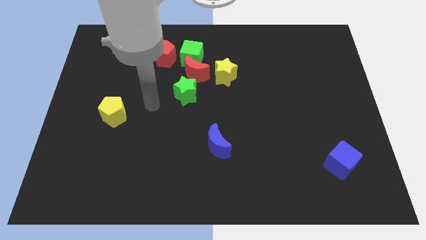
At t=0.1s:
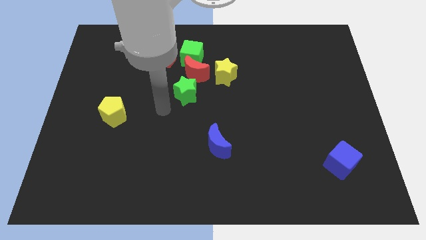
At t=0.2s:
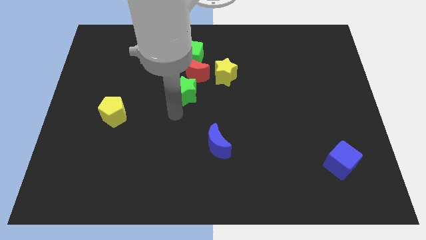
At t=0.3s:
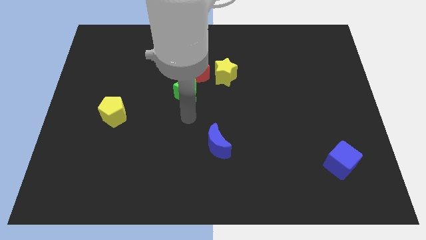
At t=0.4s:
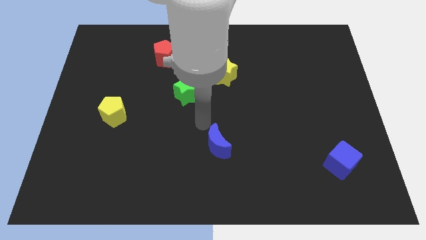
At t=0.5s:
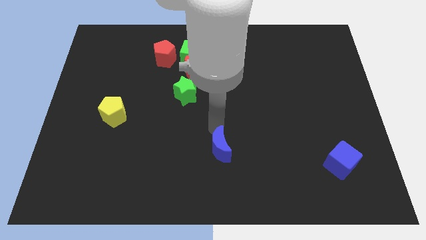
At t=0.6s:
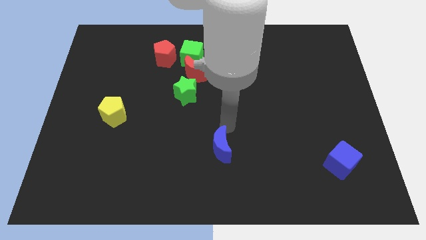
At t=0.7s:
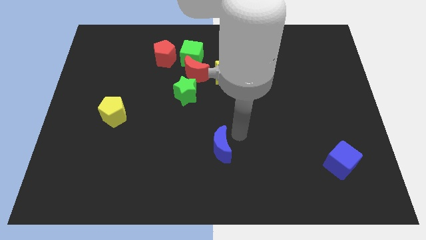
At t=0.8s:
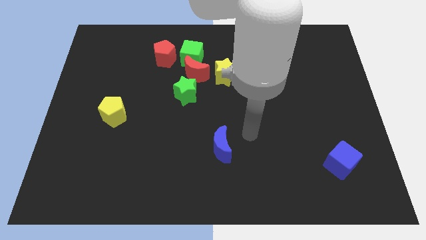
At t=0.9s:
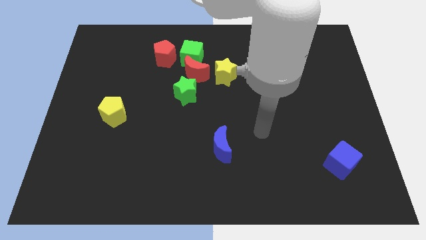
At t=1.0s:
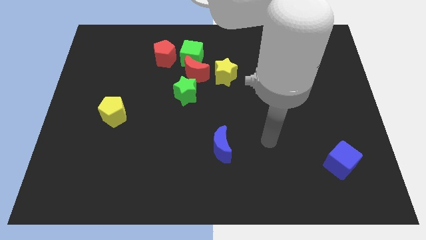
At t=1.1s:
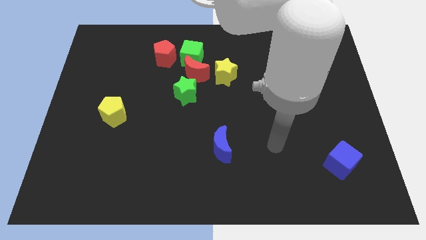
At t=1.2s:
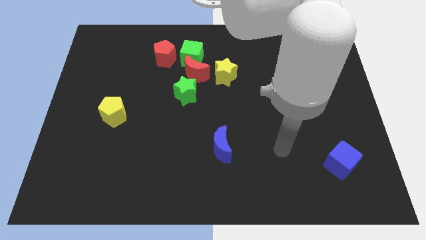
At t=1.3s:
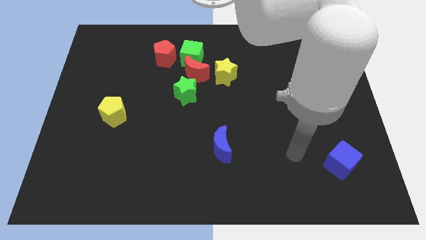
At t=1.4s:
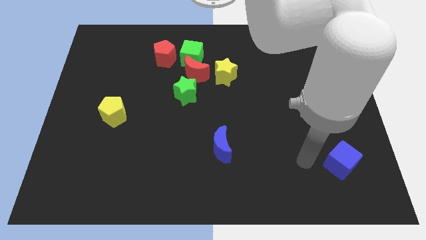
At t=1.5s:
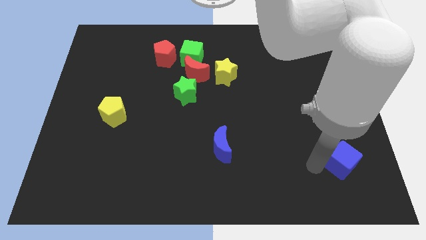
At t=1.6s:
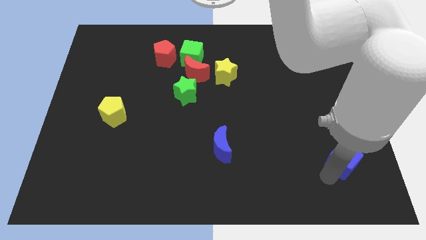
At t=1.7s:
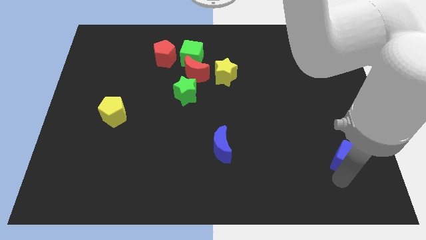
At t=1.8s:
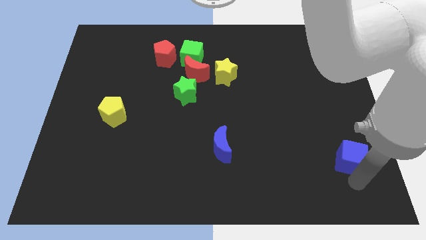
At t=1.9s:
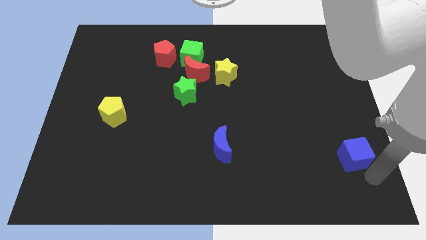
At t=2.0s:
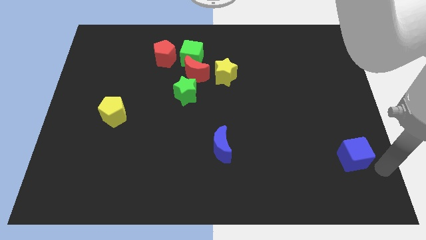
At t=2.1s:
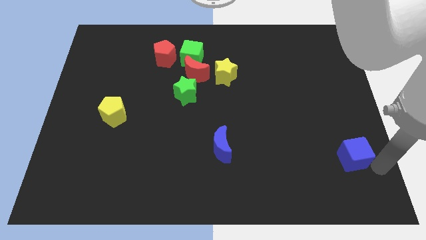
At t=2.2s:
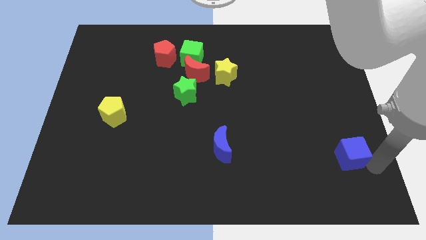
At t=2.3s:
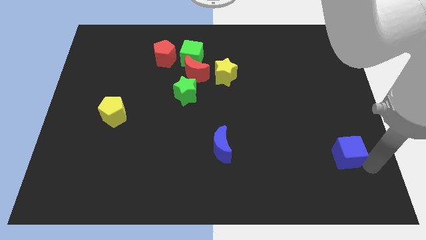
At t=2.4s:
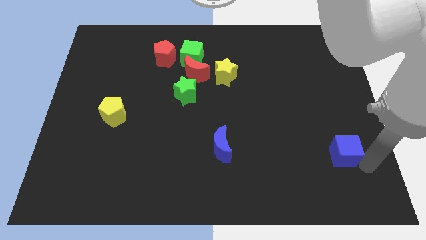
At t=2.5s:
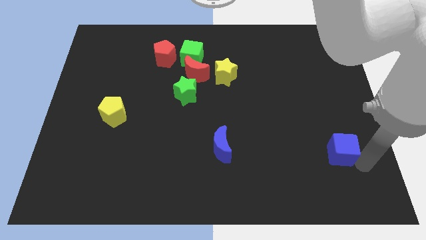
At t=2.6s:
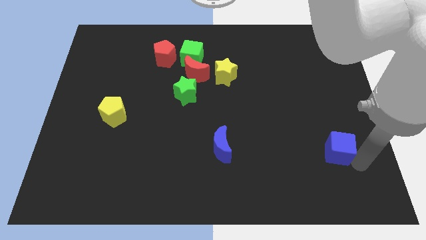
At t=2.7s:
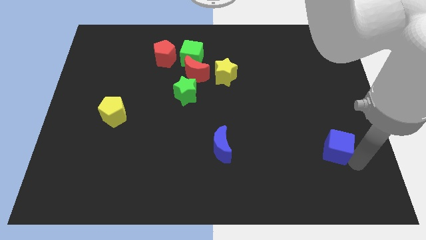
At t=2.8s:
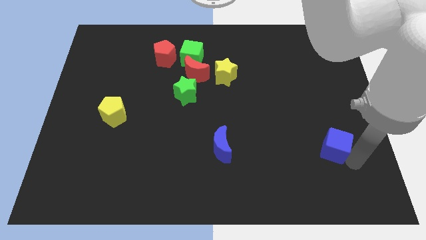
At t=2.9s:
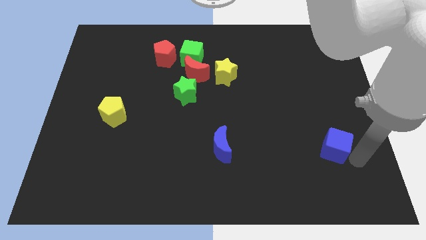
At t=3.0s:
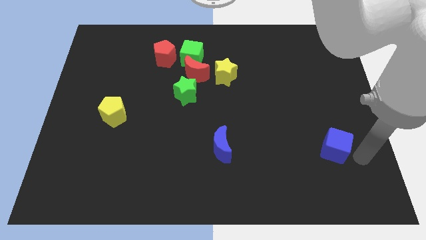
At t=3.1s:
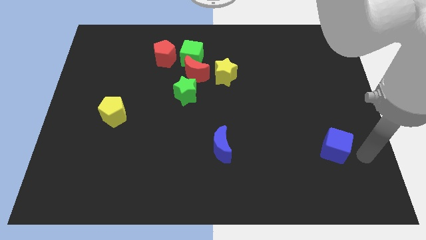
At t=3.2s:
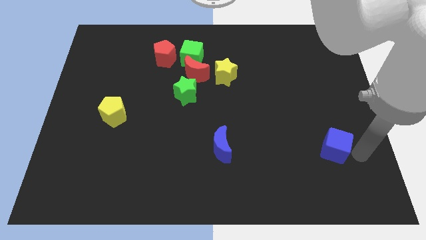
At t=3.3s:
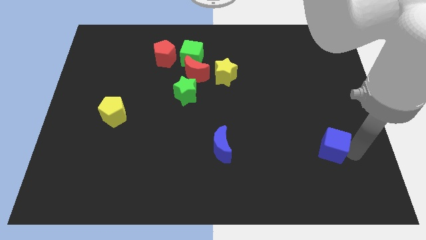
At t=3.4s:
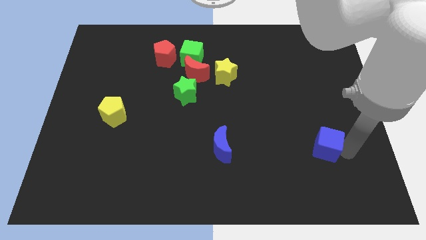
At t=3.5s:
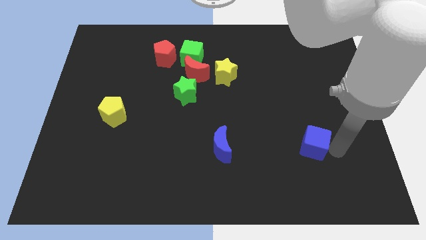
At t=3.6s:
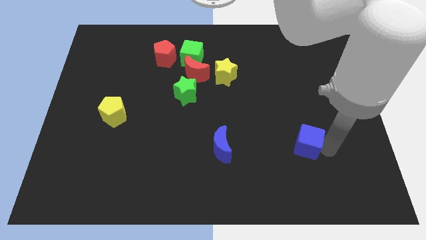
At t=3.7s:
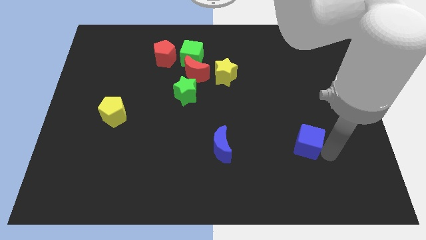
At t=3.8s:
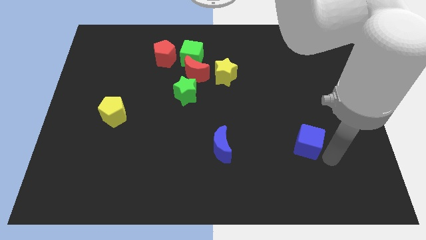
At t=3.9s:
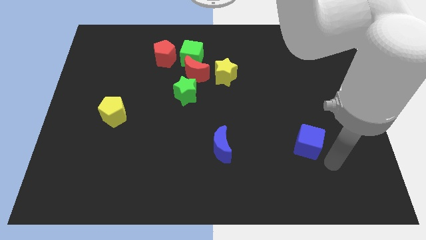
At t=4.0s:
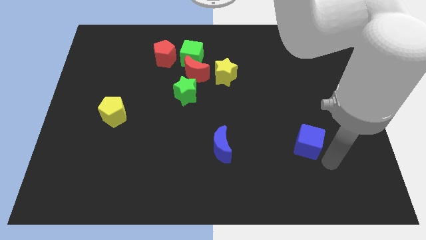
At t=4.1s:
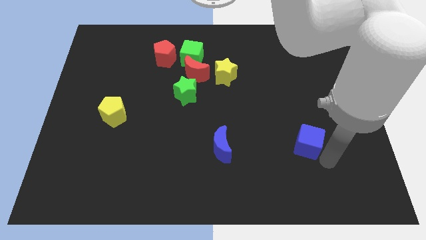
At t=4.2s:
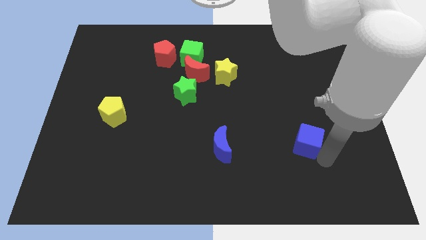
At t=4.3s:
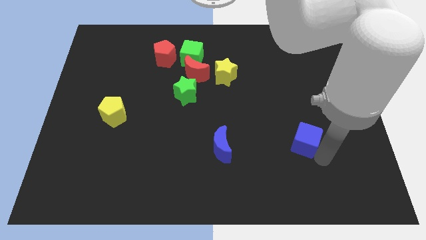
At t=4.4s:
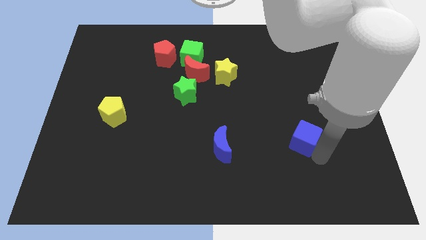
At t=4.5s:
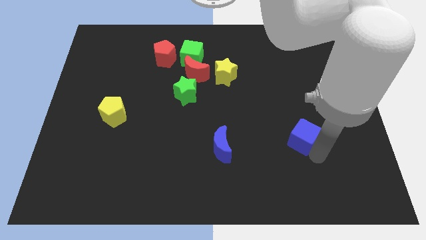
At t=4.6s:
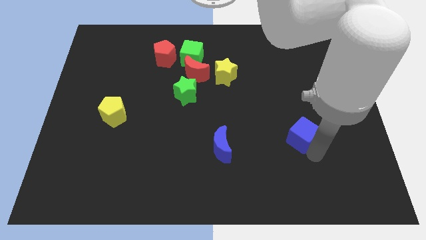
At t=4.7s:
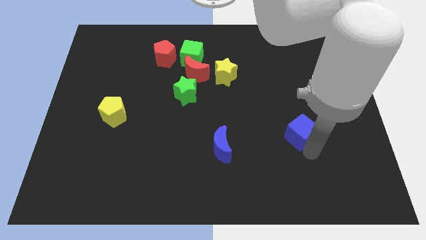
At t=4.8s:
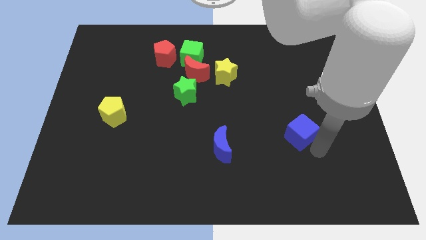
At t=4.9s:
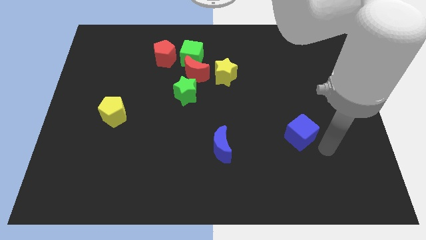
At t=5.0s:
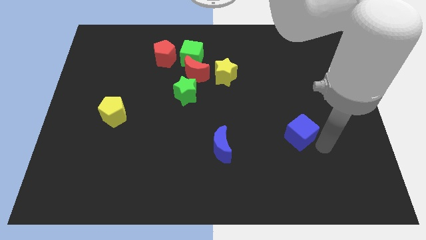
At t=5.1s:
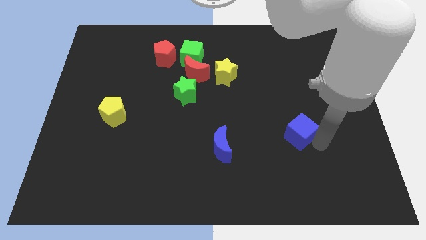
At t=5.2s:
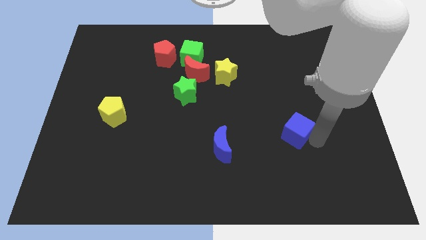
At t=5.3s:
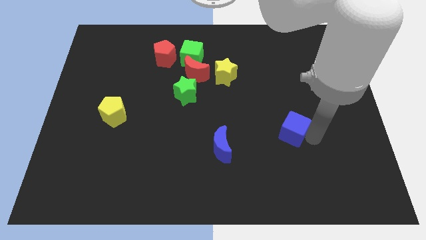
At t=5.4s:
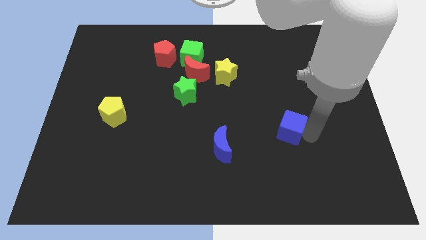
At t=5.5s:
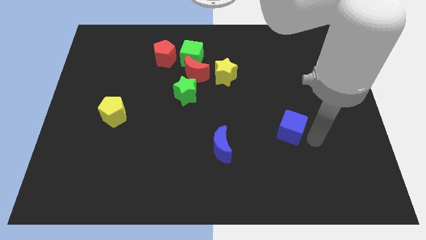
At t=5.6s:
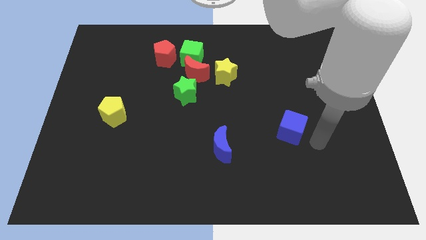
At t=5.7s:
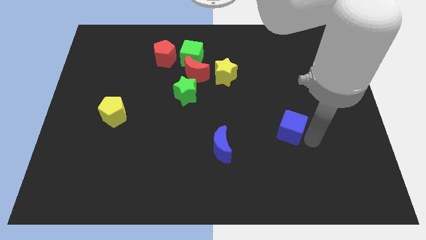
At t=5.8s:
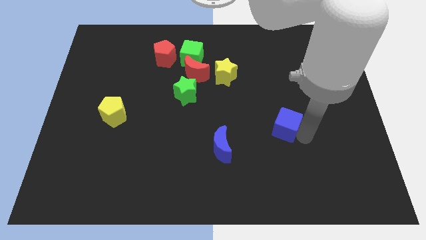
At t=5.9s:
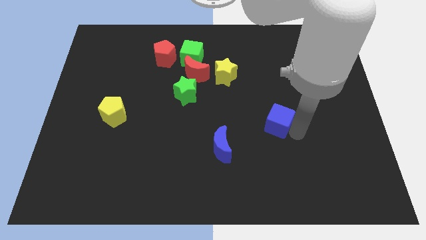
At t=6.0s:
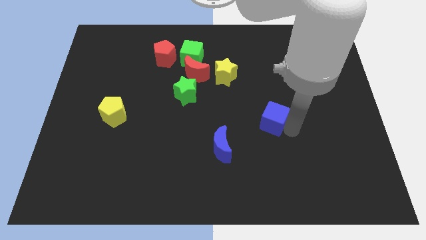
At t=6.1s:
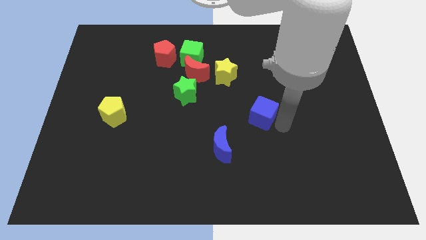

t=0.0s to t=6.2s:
push the blue cube to the middle

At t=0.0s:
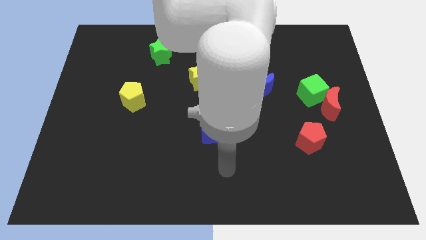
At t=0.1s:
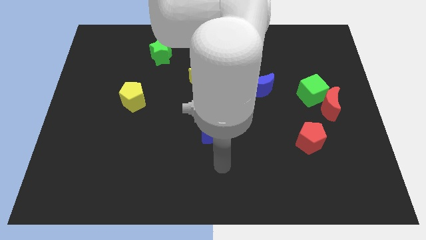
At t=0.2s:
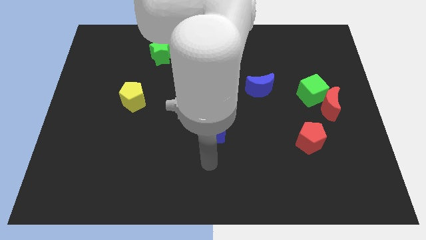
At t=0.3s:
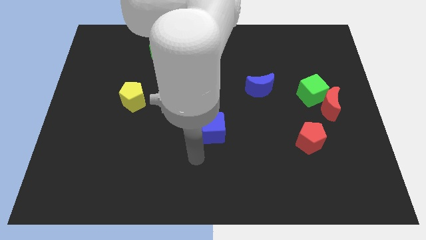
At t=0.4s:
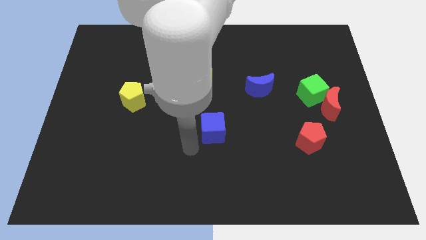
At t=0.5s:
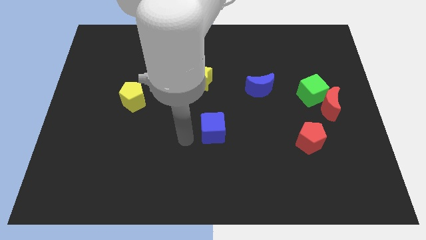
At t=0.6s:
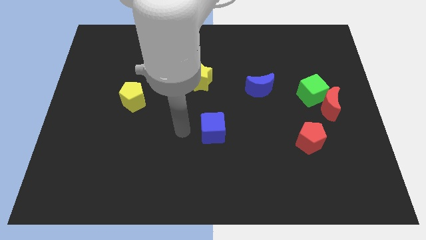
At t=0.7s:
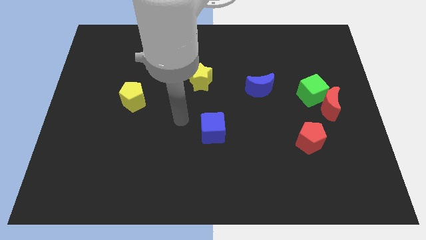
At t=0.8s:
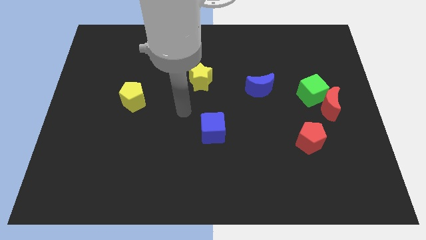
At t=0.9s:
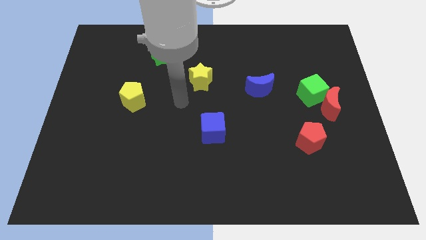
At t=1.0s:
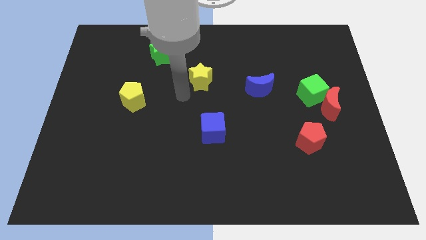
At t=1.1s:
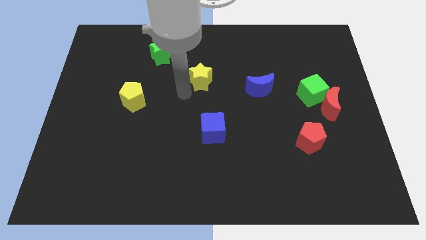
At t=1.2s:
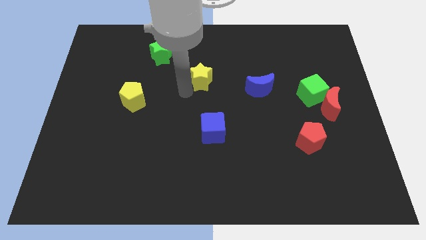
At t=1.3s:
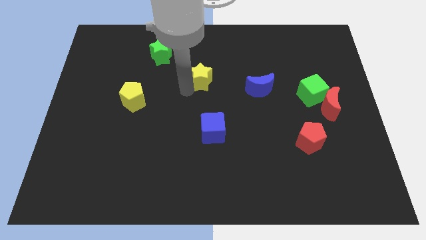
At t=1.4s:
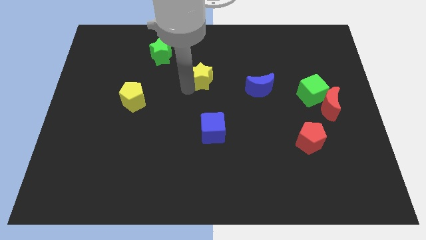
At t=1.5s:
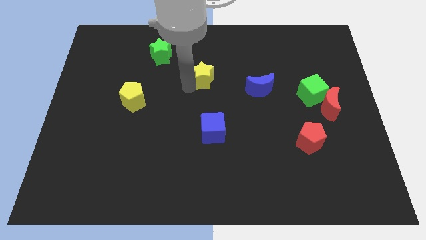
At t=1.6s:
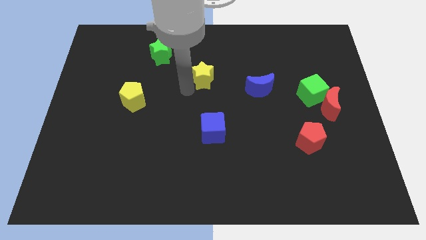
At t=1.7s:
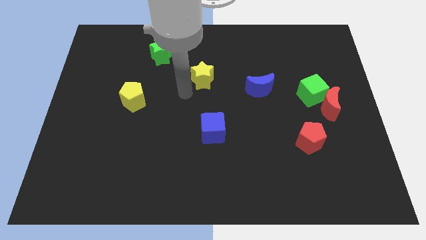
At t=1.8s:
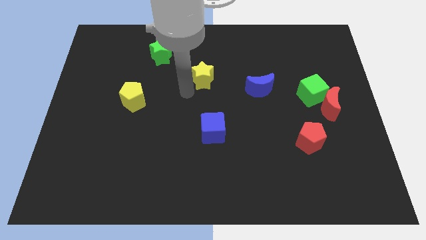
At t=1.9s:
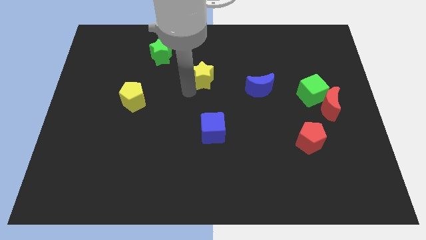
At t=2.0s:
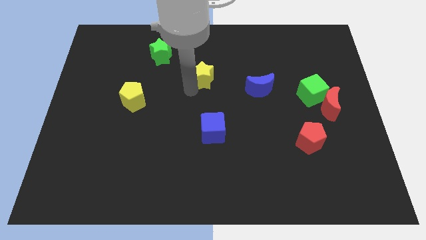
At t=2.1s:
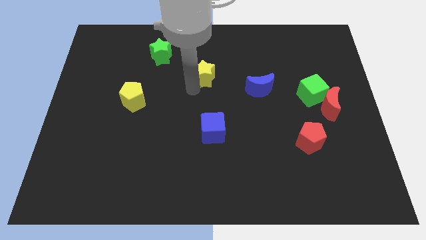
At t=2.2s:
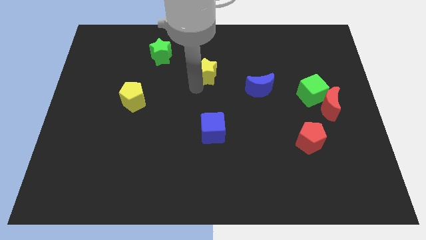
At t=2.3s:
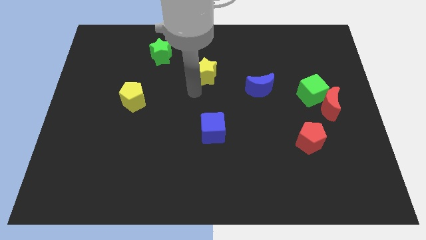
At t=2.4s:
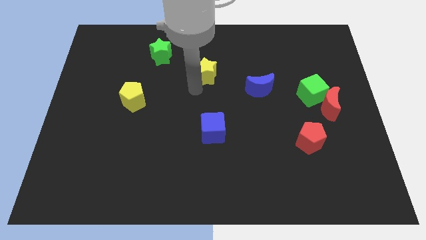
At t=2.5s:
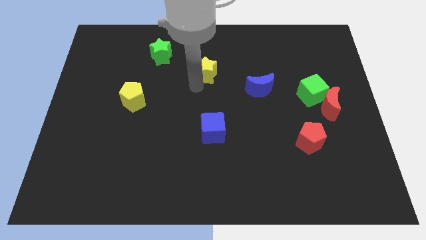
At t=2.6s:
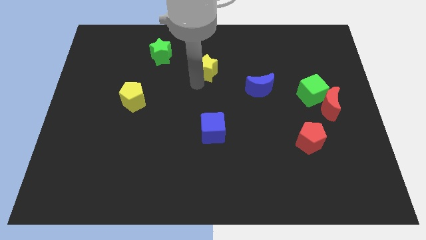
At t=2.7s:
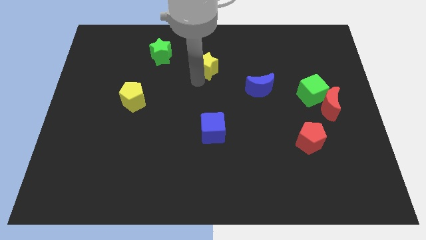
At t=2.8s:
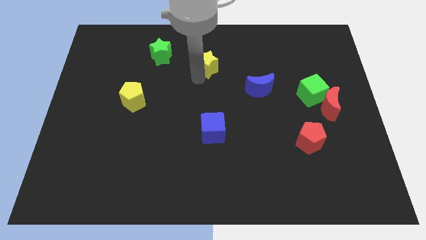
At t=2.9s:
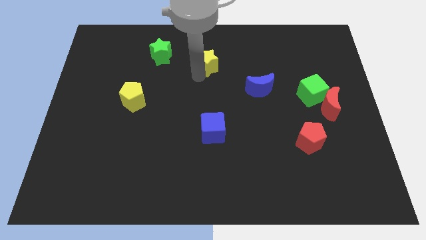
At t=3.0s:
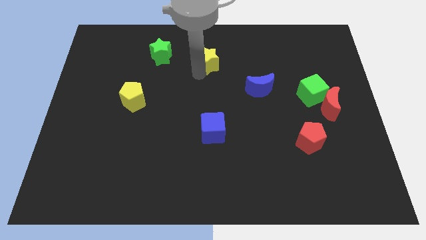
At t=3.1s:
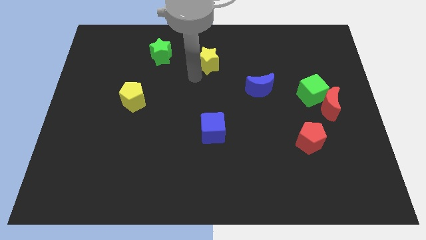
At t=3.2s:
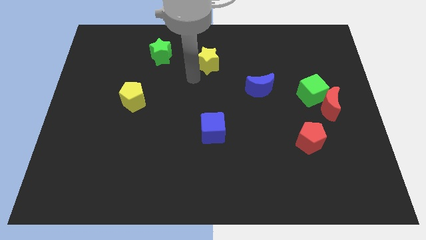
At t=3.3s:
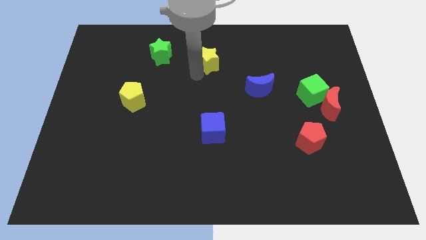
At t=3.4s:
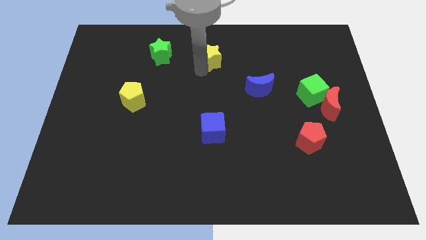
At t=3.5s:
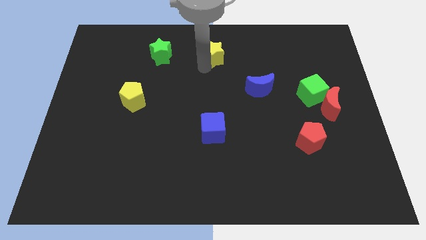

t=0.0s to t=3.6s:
slide the yellow star to the top
